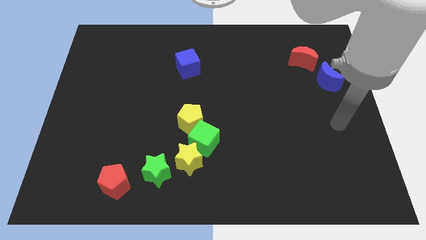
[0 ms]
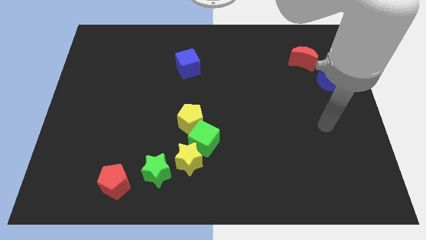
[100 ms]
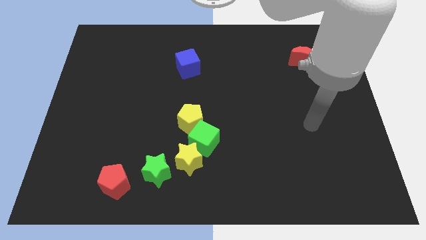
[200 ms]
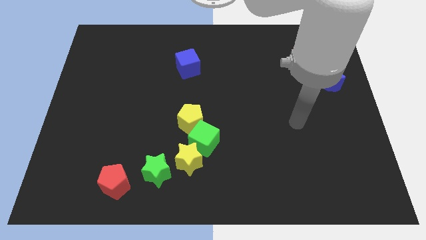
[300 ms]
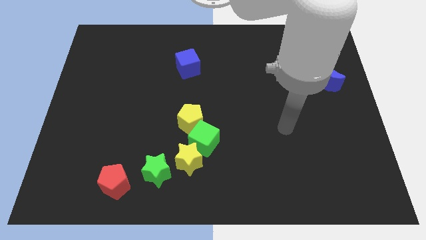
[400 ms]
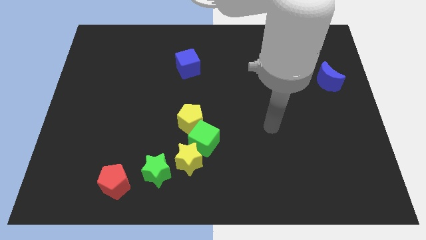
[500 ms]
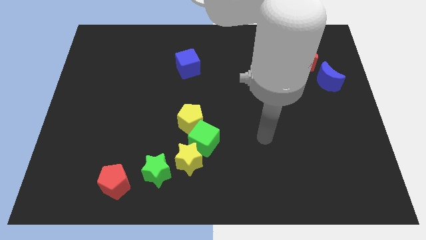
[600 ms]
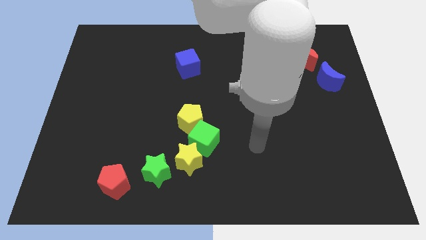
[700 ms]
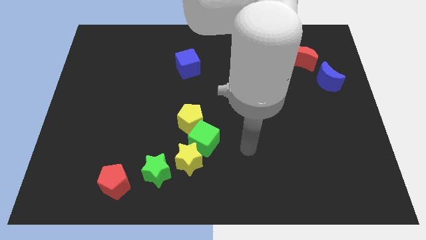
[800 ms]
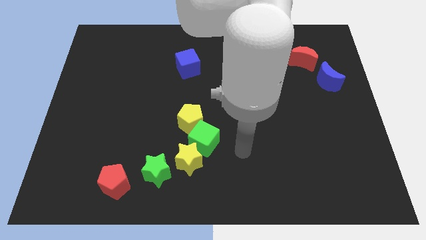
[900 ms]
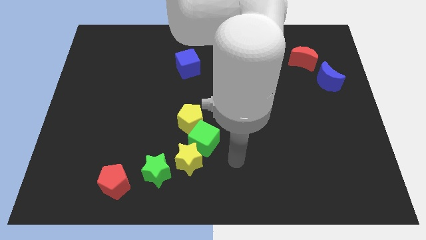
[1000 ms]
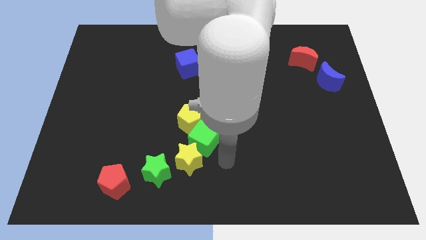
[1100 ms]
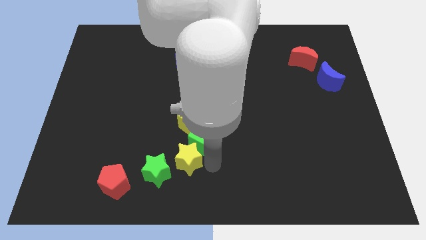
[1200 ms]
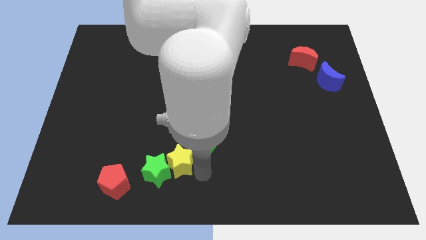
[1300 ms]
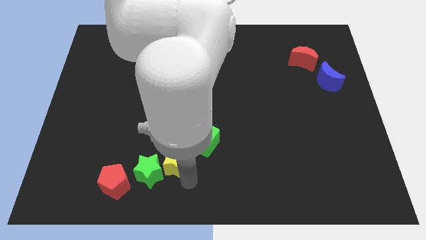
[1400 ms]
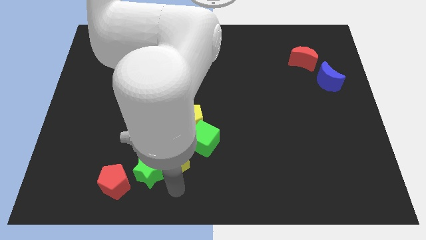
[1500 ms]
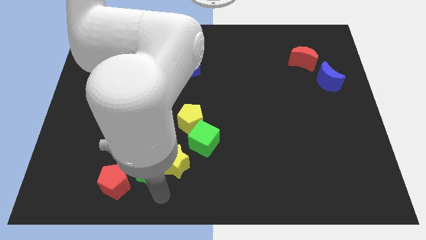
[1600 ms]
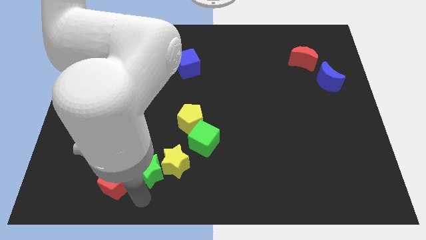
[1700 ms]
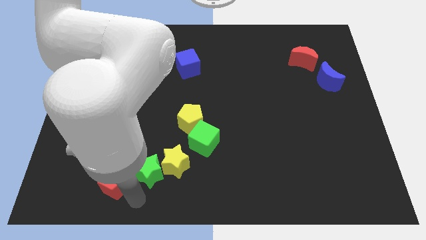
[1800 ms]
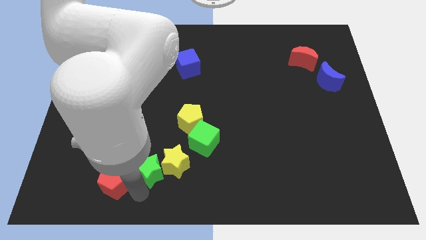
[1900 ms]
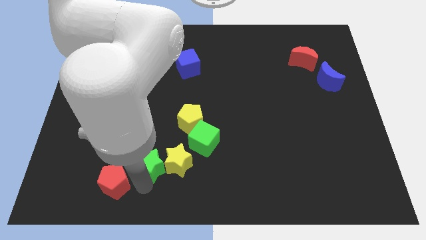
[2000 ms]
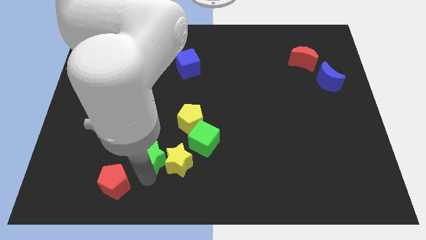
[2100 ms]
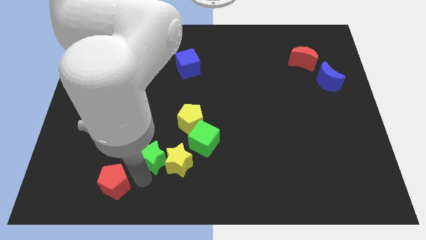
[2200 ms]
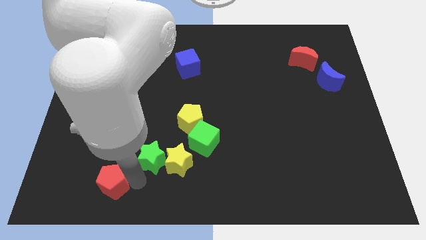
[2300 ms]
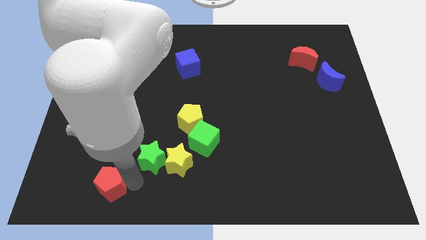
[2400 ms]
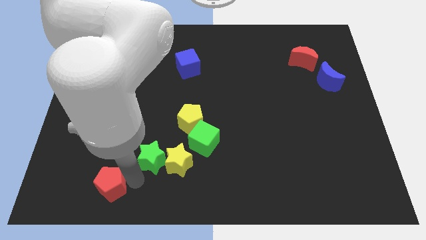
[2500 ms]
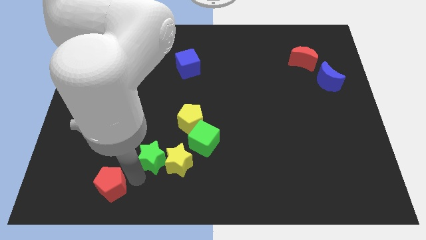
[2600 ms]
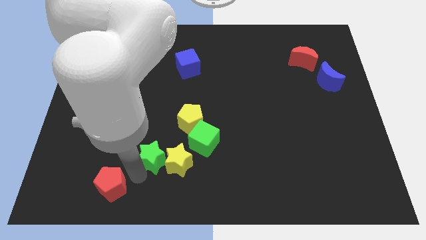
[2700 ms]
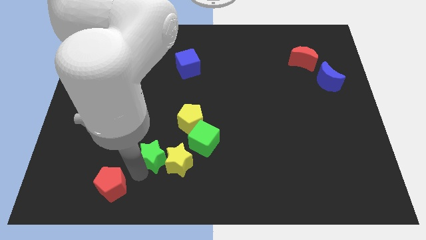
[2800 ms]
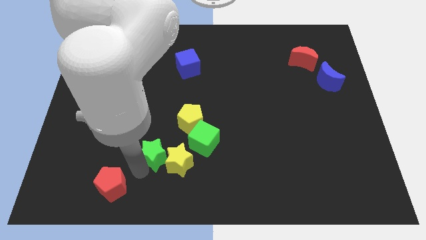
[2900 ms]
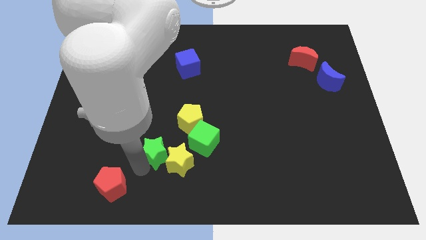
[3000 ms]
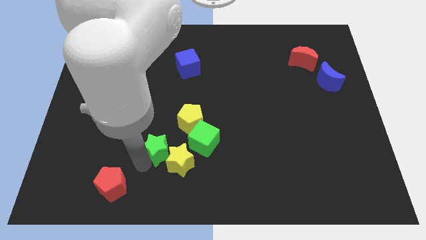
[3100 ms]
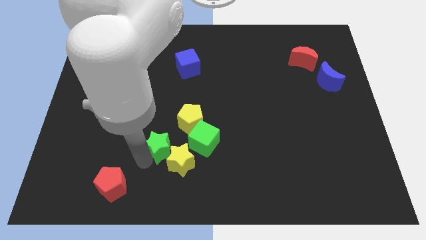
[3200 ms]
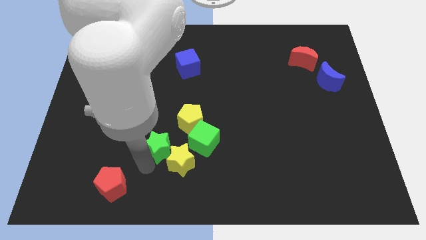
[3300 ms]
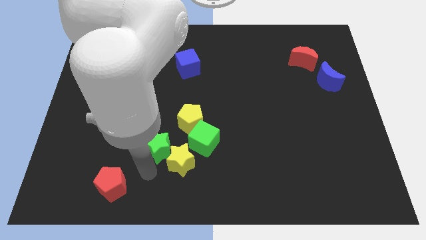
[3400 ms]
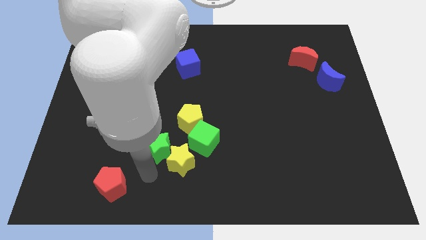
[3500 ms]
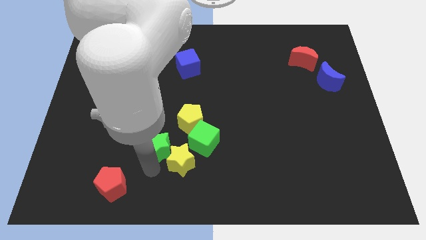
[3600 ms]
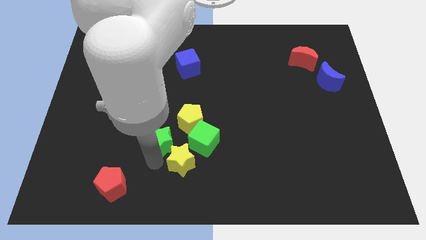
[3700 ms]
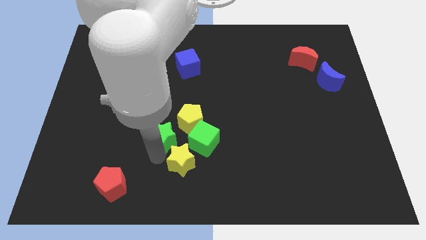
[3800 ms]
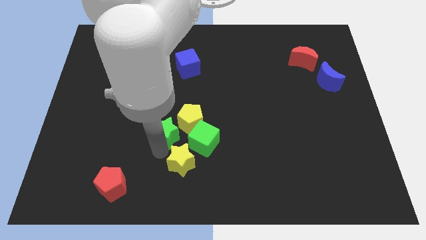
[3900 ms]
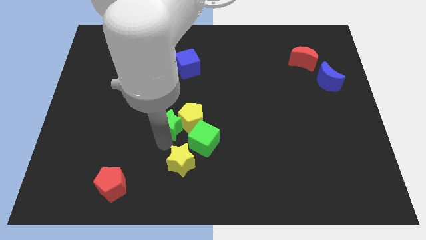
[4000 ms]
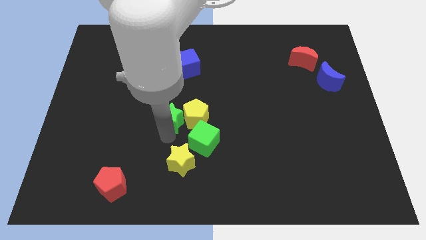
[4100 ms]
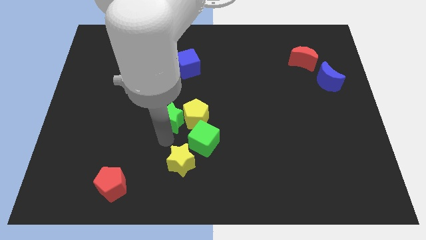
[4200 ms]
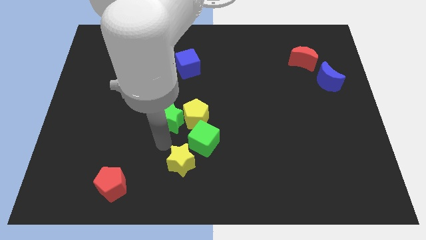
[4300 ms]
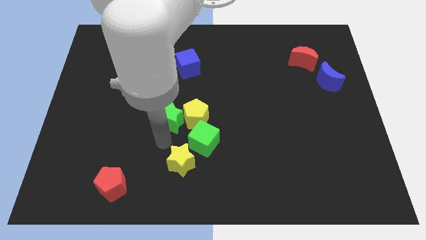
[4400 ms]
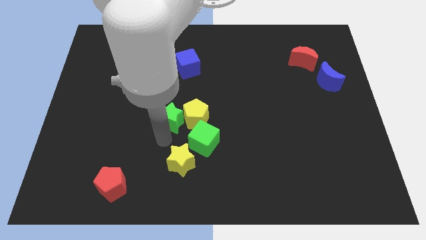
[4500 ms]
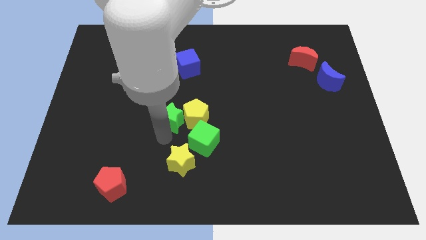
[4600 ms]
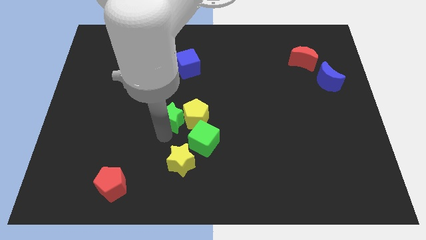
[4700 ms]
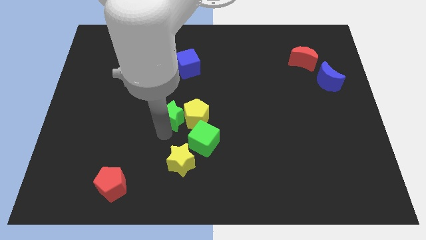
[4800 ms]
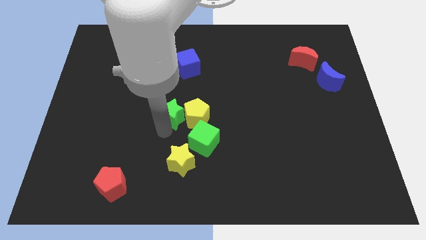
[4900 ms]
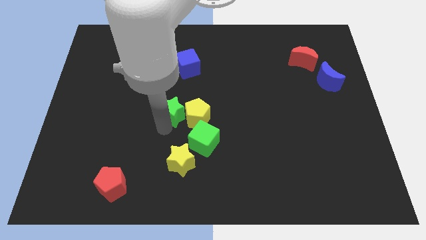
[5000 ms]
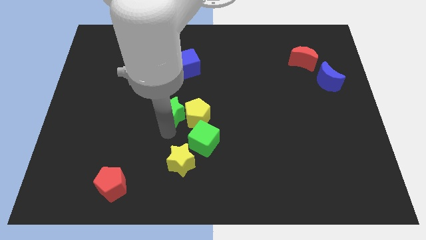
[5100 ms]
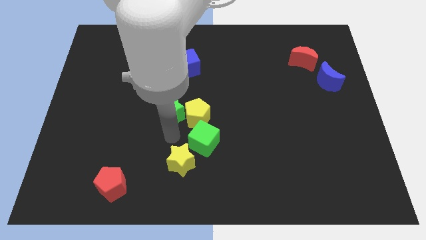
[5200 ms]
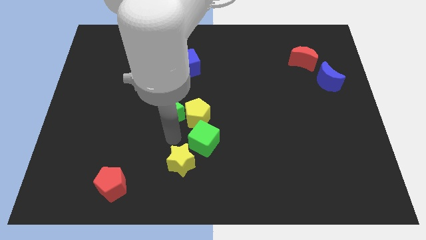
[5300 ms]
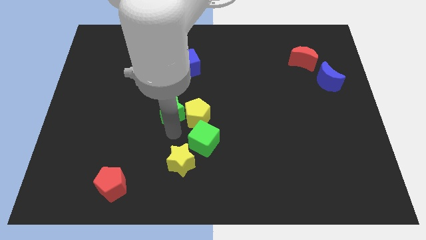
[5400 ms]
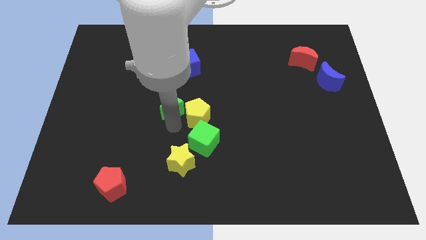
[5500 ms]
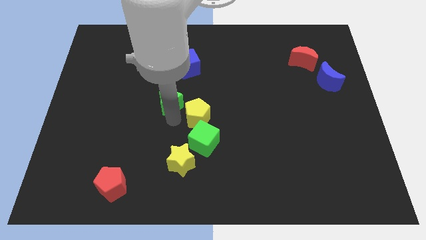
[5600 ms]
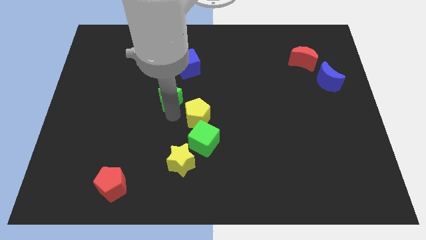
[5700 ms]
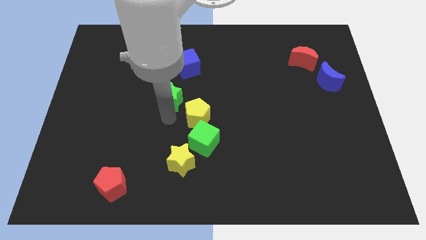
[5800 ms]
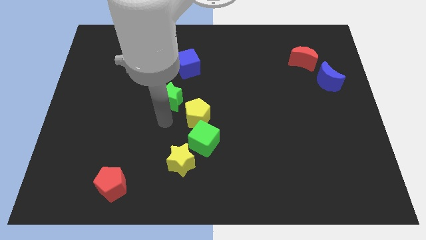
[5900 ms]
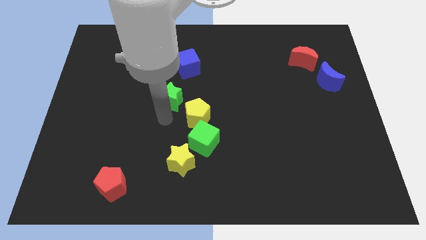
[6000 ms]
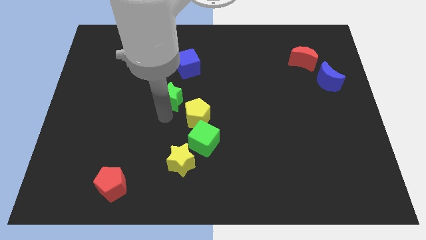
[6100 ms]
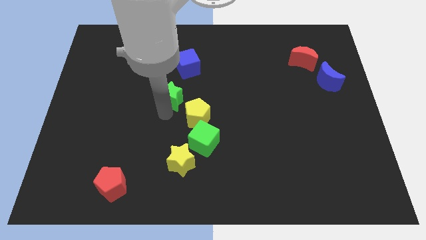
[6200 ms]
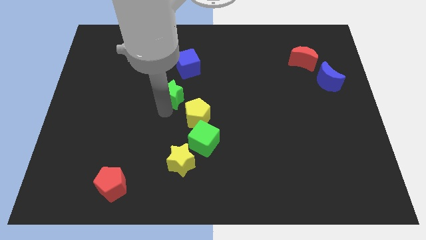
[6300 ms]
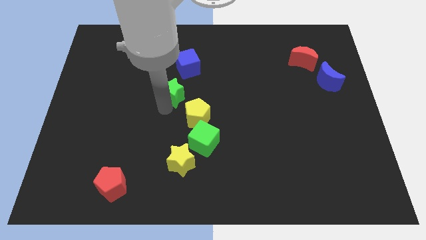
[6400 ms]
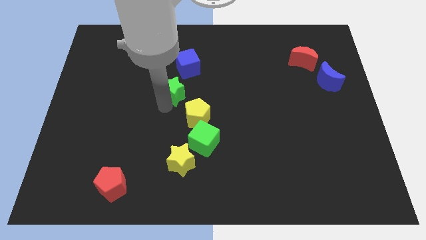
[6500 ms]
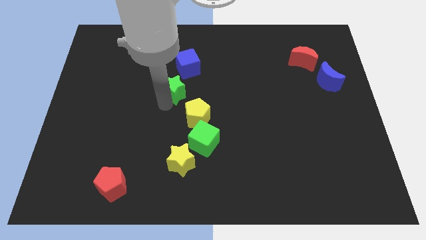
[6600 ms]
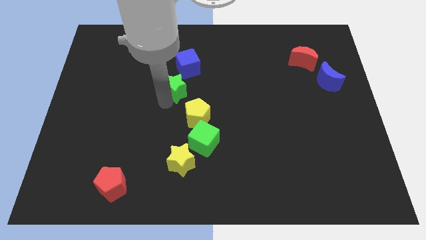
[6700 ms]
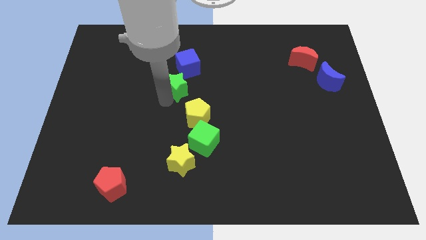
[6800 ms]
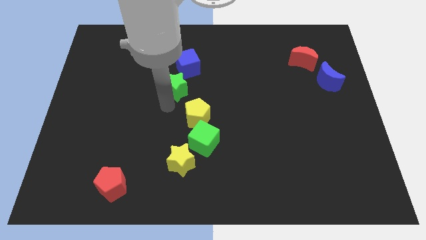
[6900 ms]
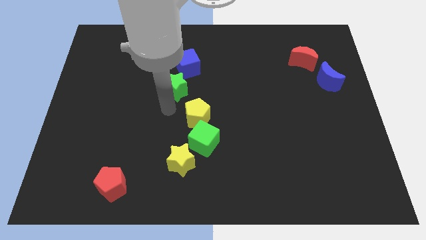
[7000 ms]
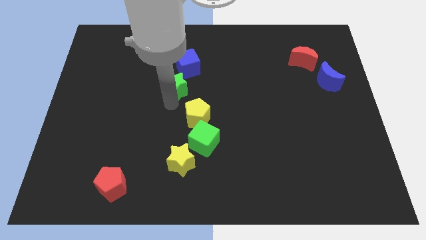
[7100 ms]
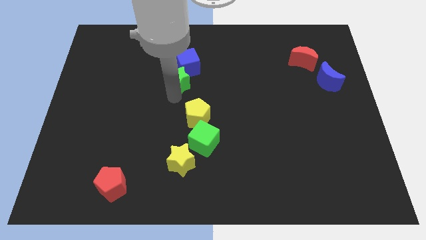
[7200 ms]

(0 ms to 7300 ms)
slide the green star next to the blue cube
